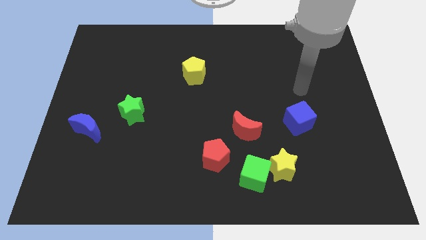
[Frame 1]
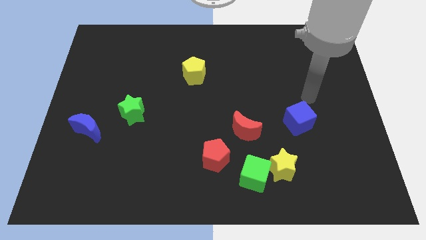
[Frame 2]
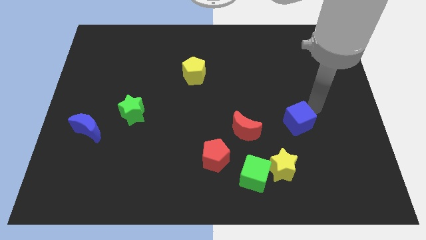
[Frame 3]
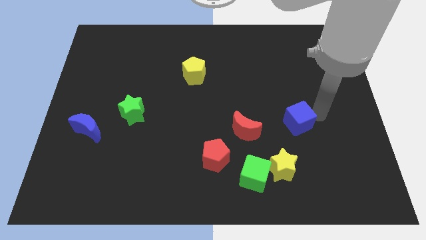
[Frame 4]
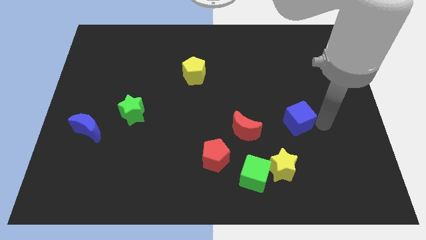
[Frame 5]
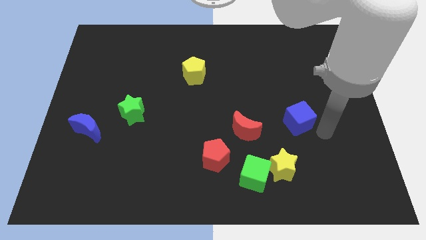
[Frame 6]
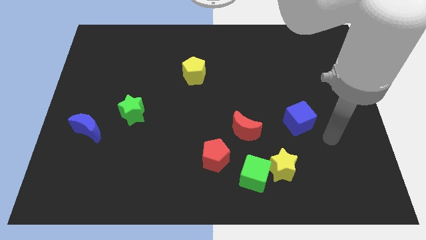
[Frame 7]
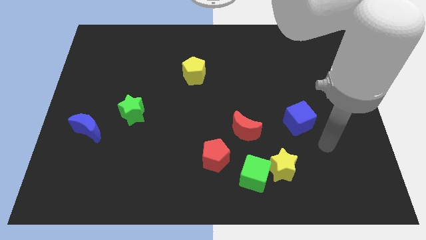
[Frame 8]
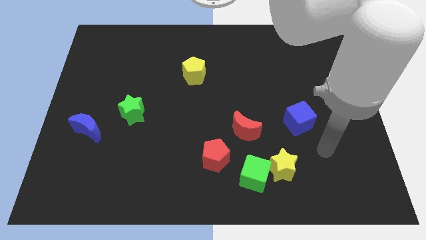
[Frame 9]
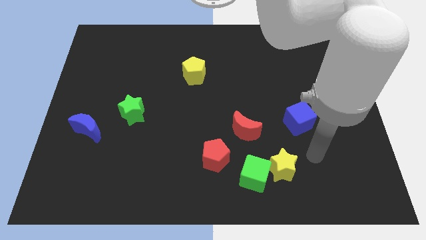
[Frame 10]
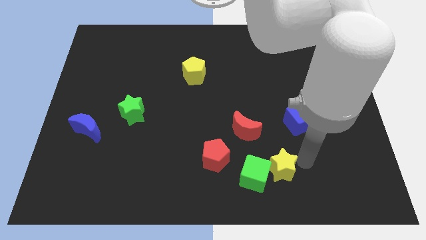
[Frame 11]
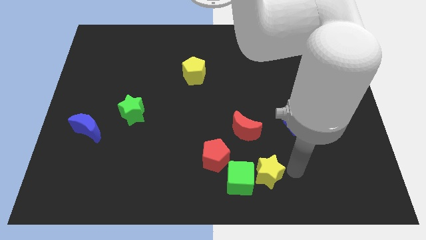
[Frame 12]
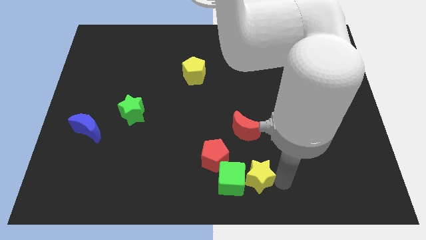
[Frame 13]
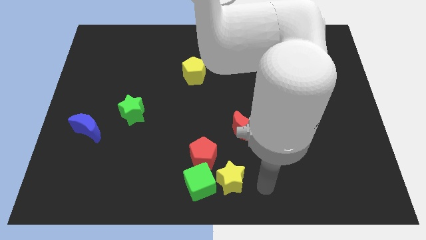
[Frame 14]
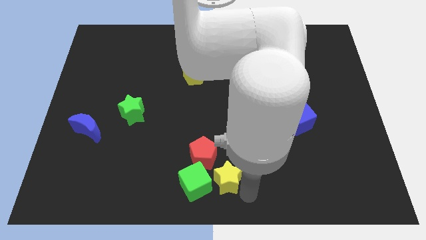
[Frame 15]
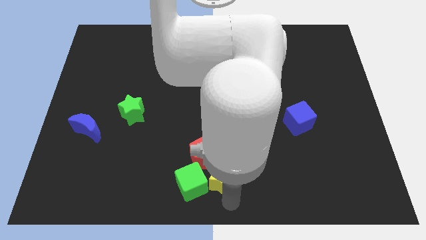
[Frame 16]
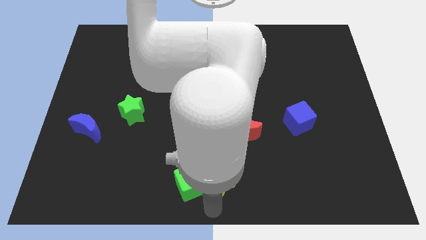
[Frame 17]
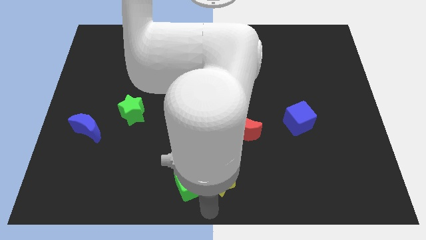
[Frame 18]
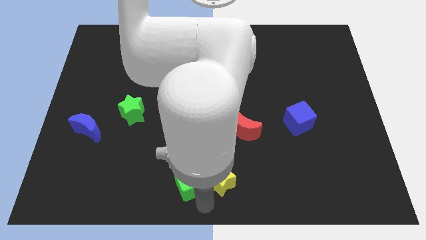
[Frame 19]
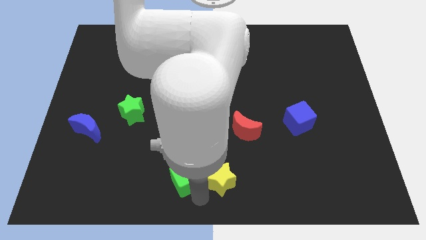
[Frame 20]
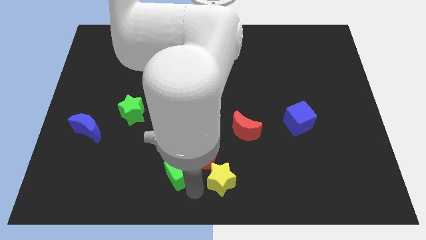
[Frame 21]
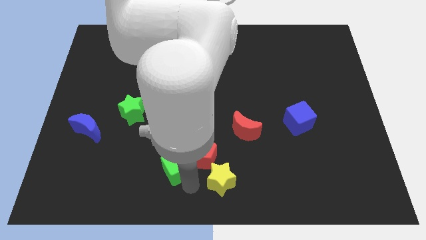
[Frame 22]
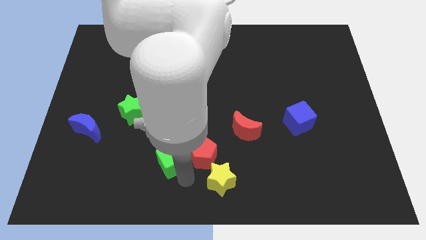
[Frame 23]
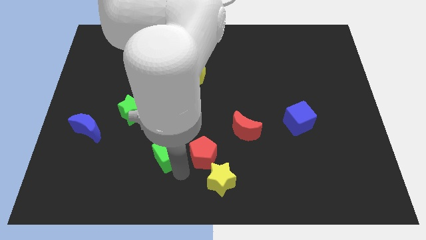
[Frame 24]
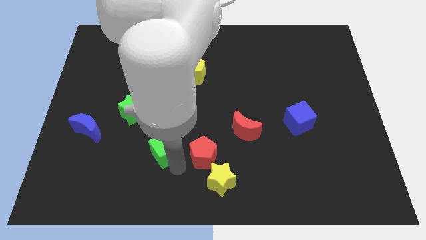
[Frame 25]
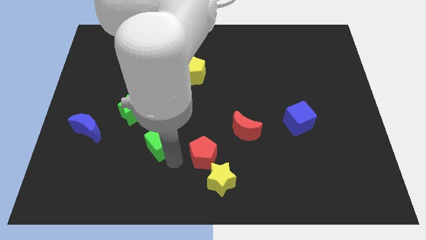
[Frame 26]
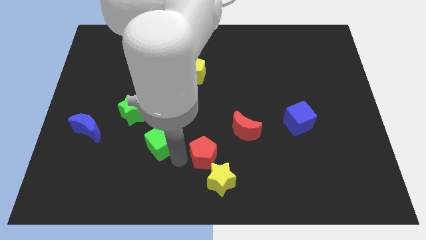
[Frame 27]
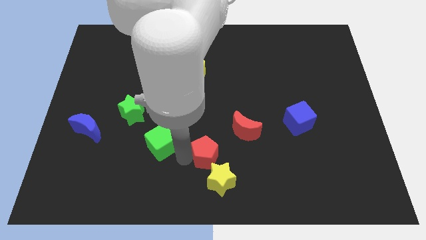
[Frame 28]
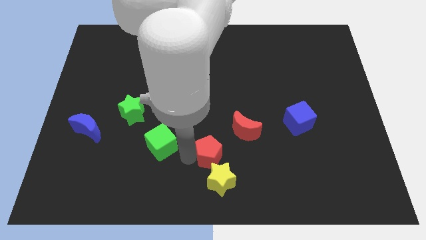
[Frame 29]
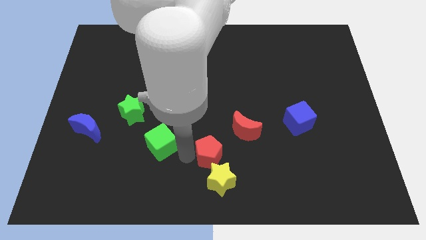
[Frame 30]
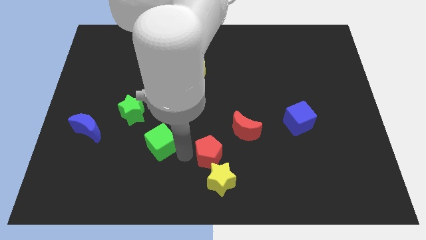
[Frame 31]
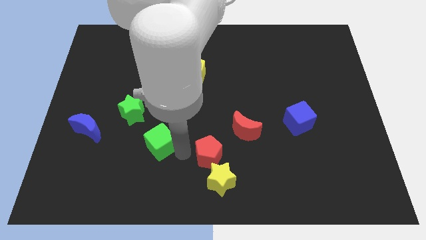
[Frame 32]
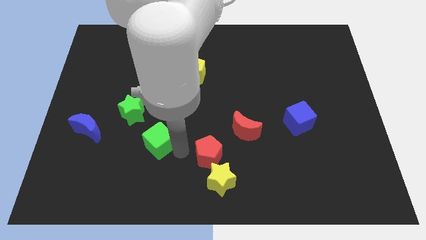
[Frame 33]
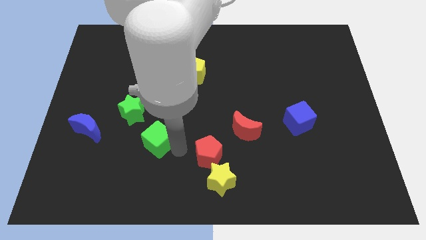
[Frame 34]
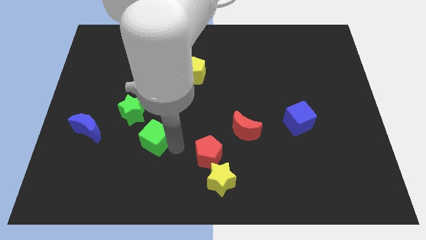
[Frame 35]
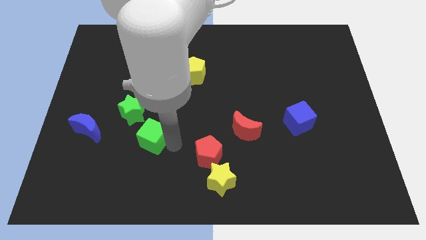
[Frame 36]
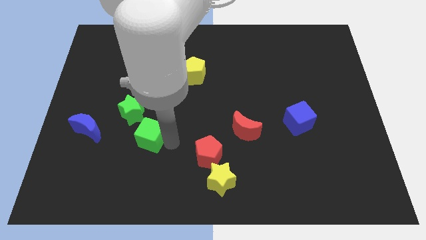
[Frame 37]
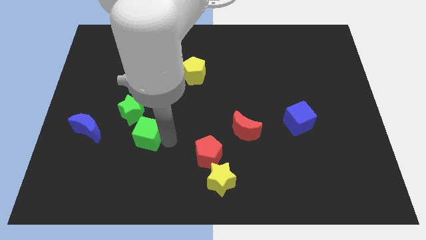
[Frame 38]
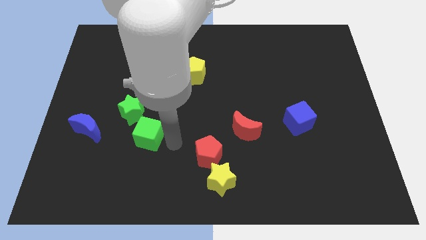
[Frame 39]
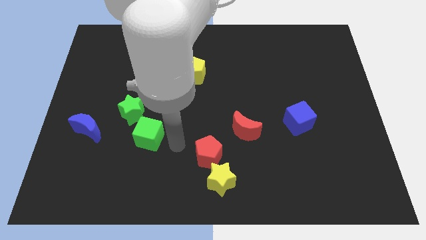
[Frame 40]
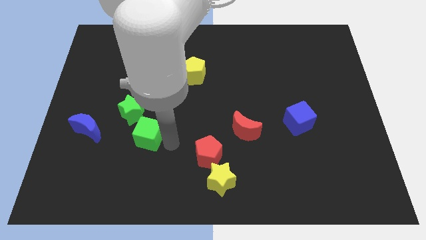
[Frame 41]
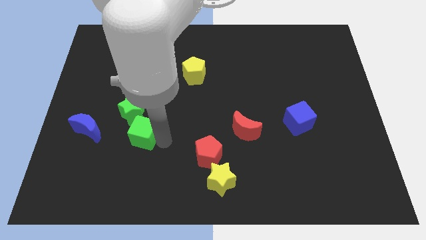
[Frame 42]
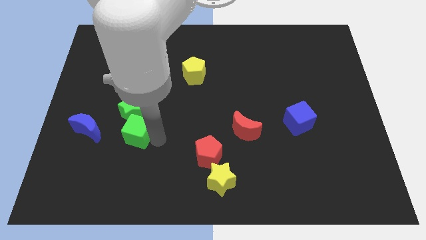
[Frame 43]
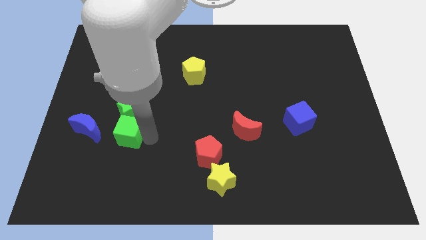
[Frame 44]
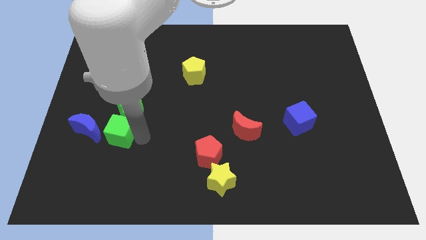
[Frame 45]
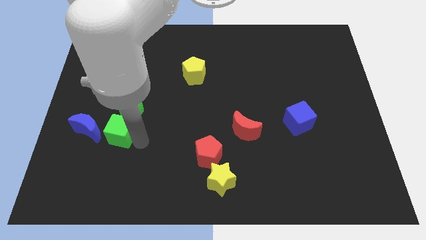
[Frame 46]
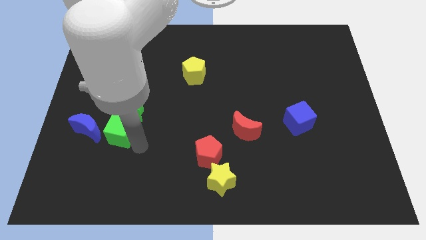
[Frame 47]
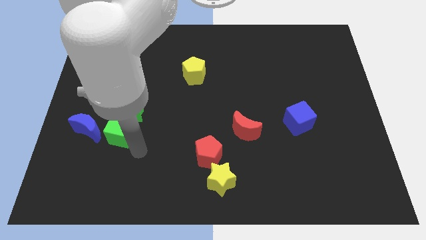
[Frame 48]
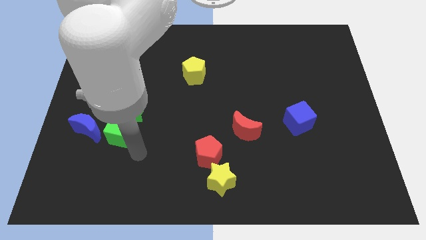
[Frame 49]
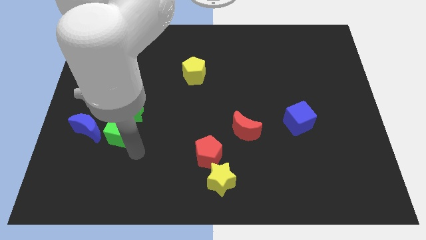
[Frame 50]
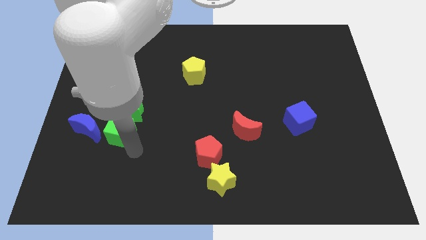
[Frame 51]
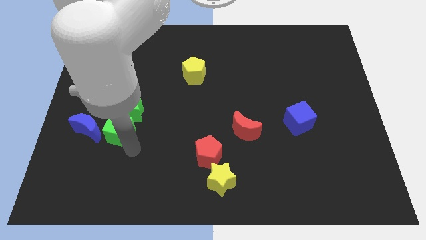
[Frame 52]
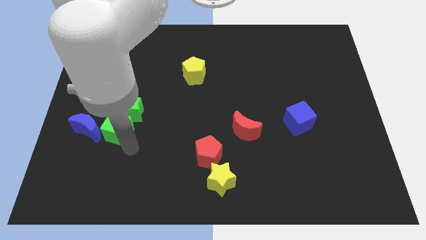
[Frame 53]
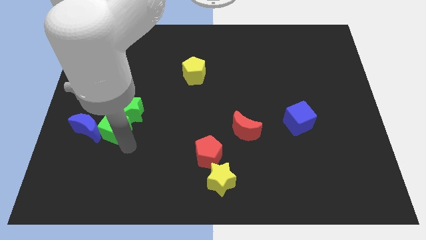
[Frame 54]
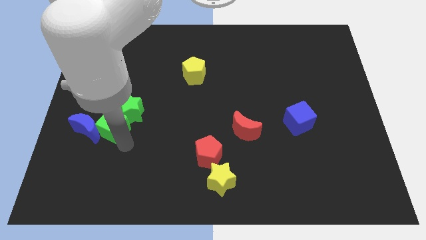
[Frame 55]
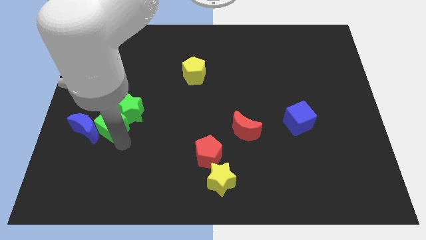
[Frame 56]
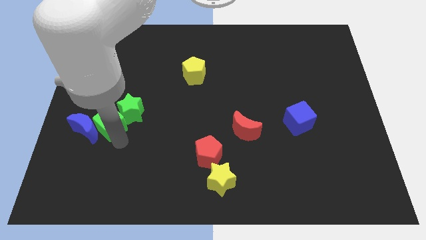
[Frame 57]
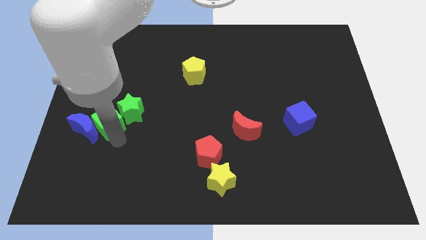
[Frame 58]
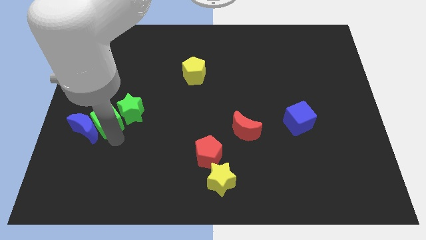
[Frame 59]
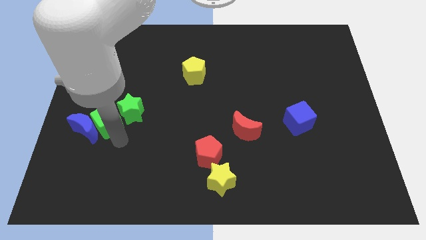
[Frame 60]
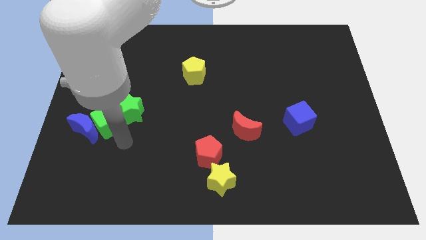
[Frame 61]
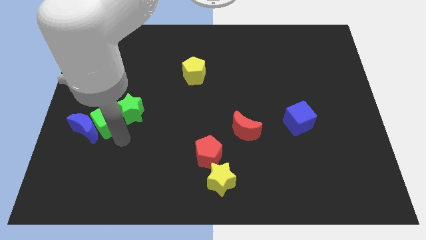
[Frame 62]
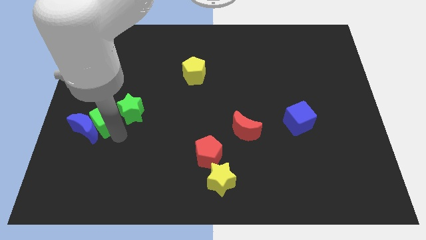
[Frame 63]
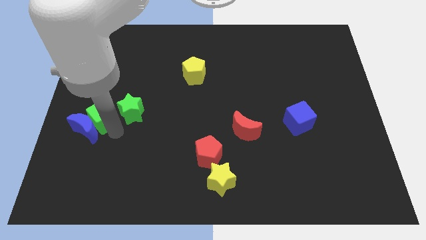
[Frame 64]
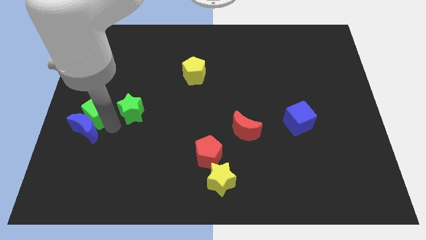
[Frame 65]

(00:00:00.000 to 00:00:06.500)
push the green cube to the left side
